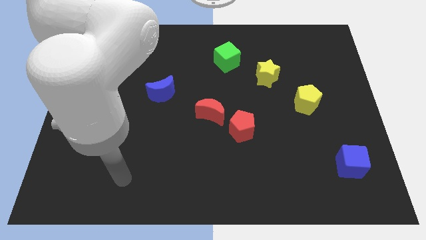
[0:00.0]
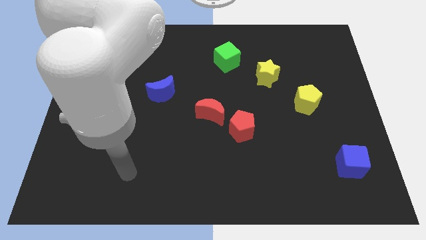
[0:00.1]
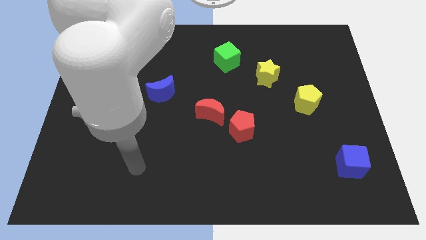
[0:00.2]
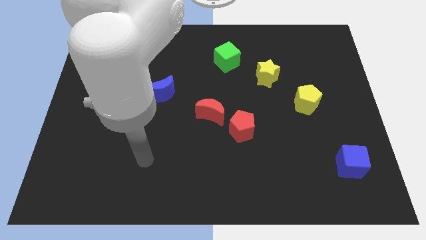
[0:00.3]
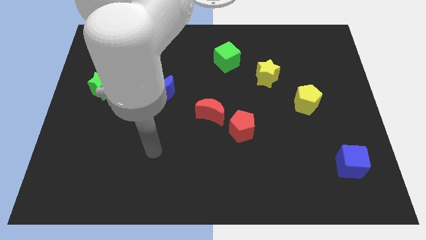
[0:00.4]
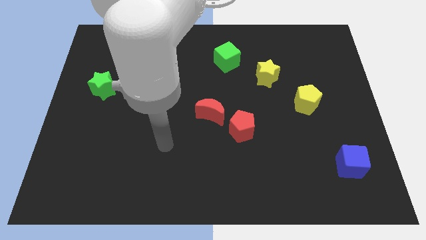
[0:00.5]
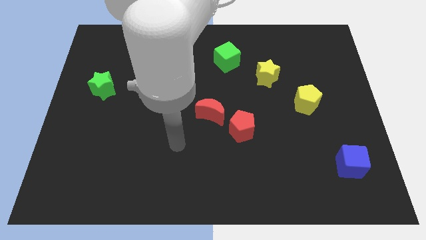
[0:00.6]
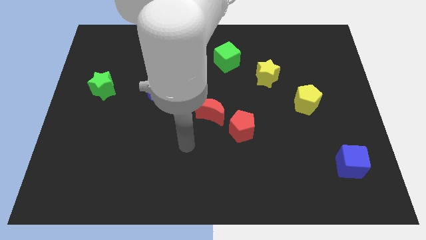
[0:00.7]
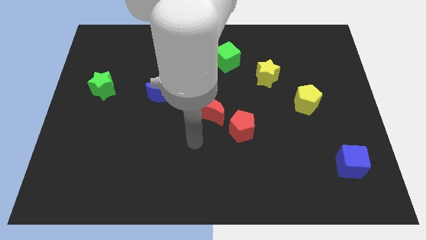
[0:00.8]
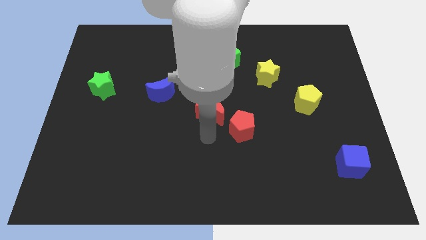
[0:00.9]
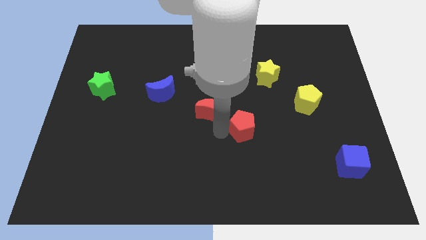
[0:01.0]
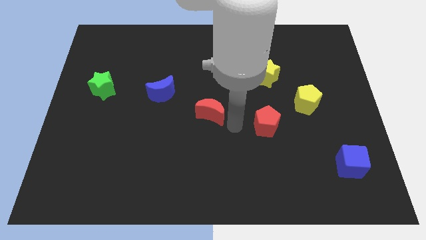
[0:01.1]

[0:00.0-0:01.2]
pull the red moon apart from the red pentagon

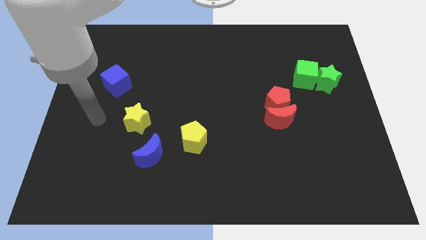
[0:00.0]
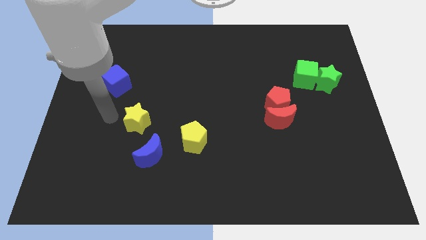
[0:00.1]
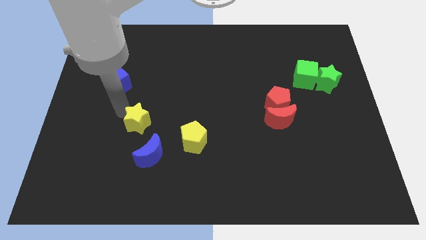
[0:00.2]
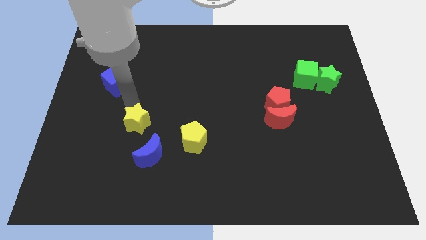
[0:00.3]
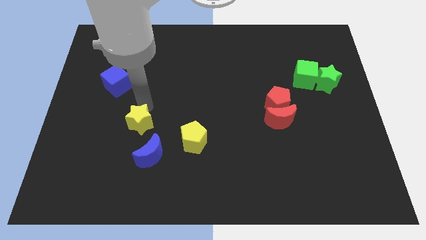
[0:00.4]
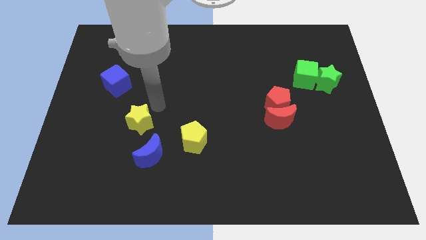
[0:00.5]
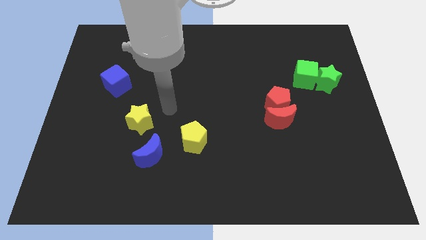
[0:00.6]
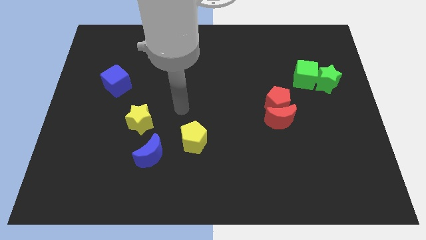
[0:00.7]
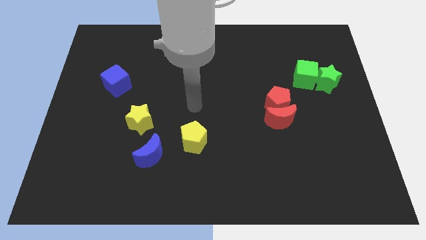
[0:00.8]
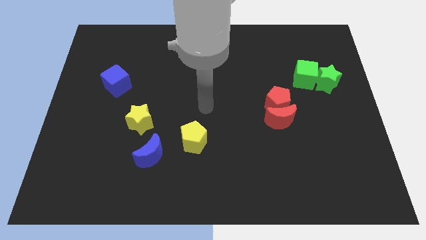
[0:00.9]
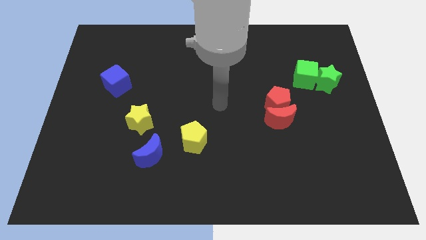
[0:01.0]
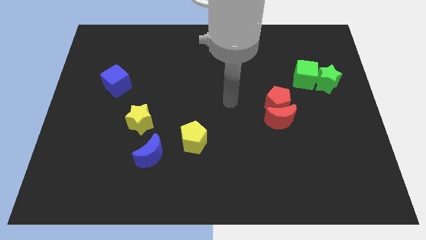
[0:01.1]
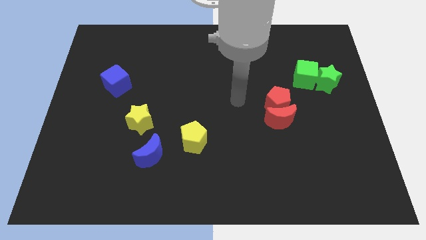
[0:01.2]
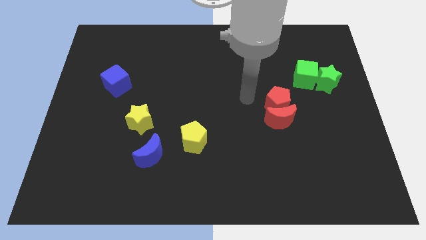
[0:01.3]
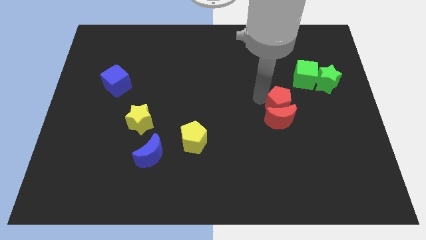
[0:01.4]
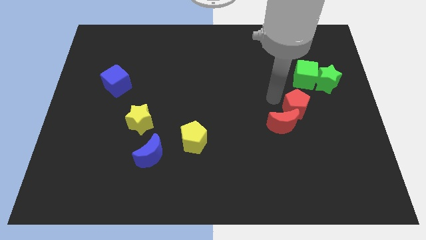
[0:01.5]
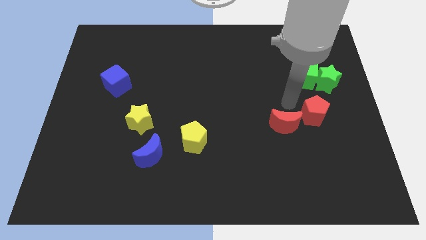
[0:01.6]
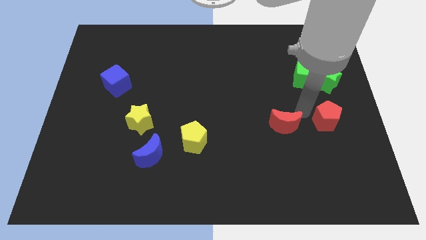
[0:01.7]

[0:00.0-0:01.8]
separate the red moon from the red pentagon

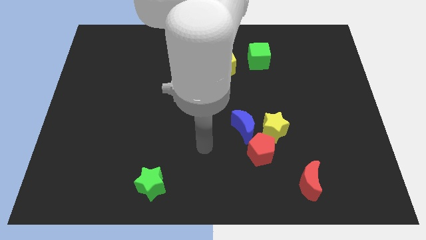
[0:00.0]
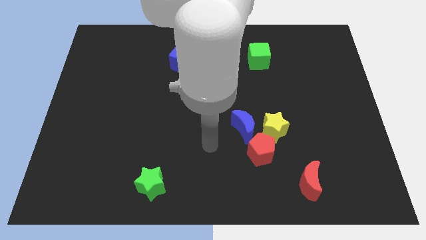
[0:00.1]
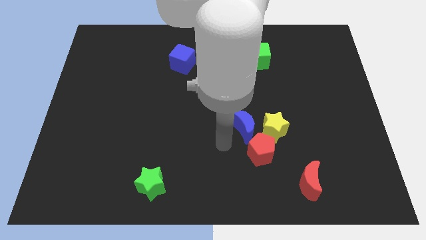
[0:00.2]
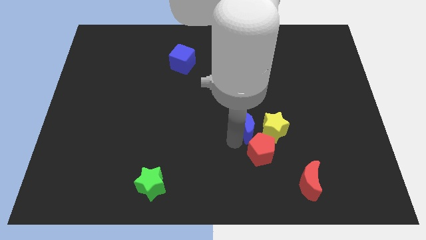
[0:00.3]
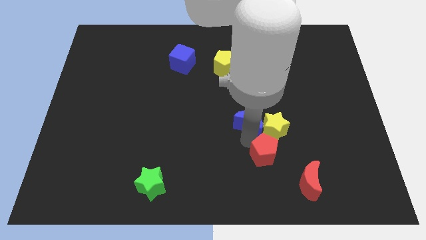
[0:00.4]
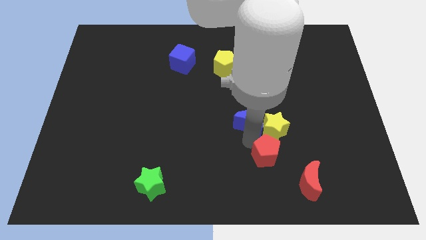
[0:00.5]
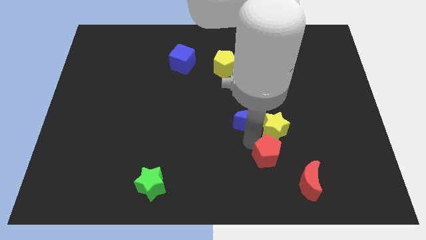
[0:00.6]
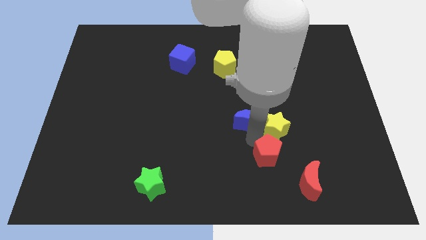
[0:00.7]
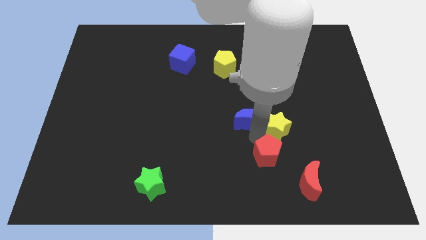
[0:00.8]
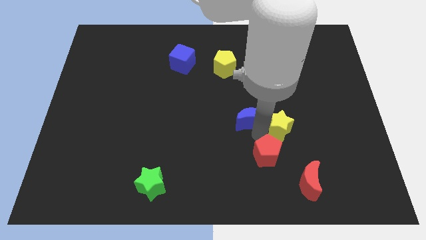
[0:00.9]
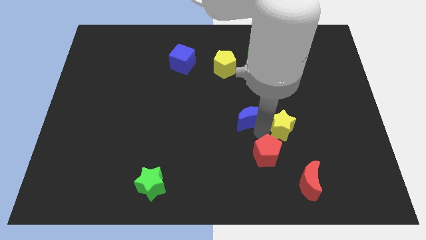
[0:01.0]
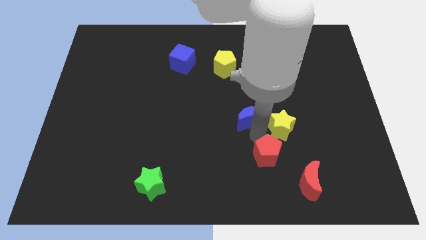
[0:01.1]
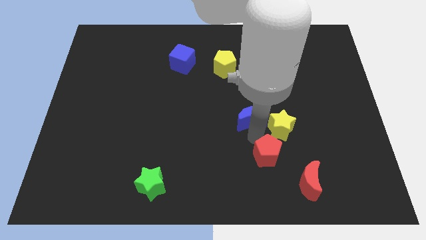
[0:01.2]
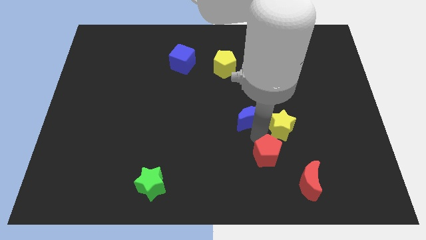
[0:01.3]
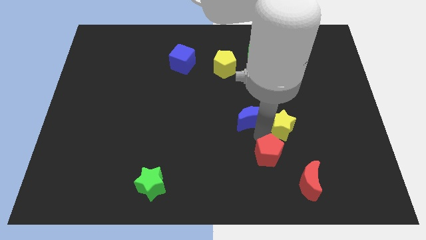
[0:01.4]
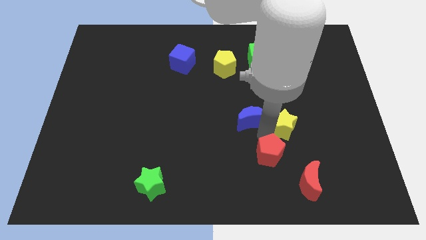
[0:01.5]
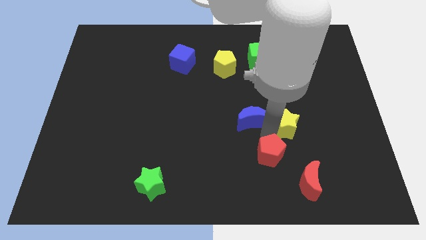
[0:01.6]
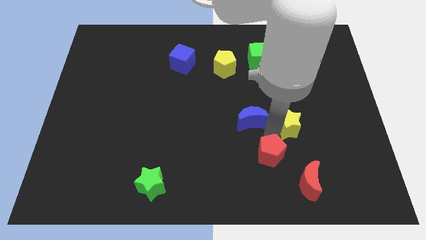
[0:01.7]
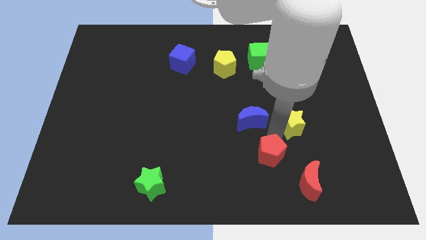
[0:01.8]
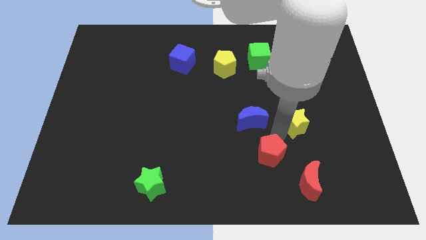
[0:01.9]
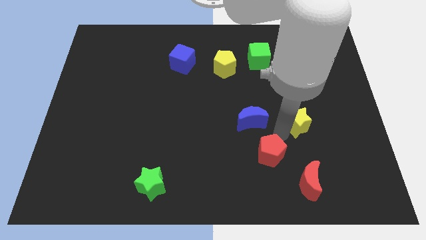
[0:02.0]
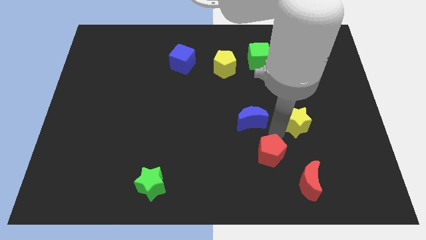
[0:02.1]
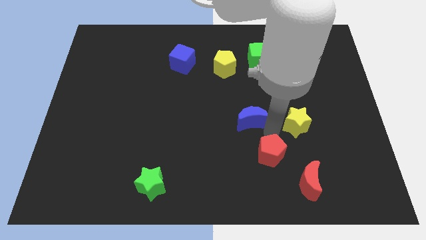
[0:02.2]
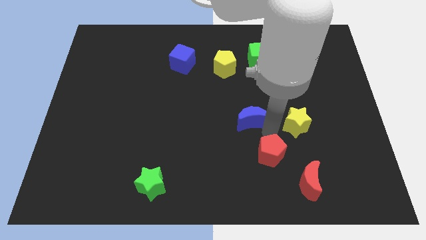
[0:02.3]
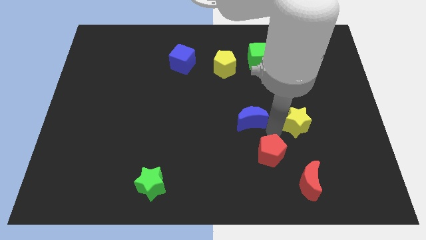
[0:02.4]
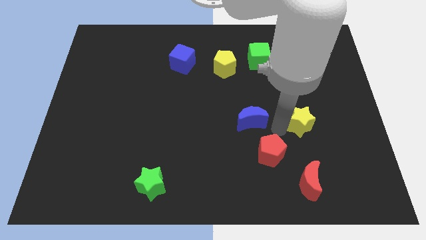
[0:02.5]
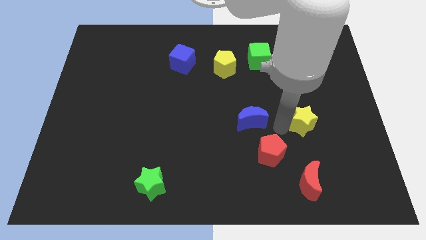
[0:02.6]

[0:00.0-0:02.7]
pull the yellow star apart from the blue moon and red pentagon

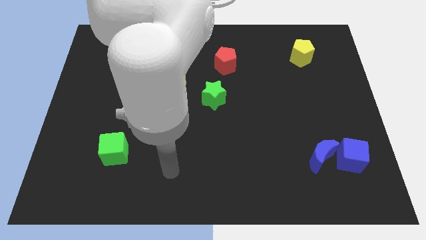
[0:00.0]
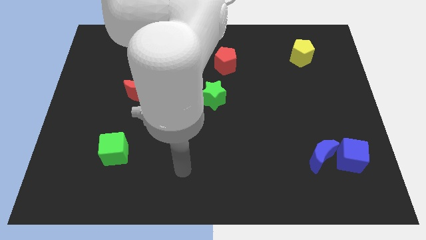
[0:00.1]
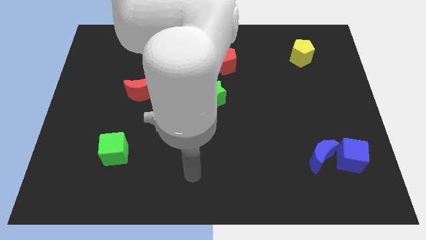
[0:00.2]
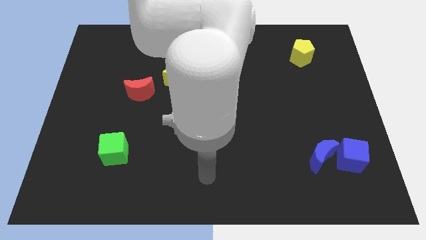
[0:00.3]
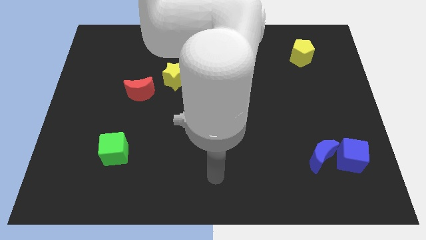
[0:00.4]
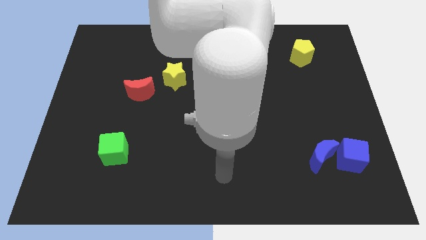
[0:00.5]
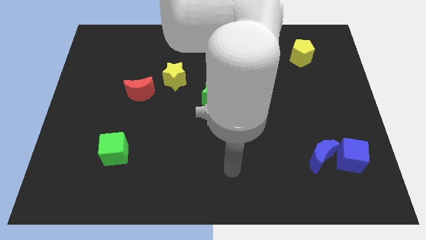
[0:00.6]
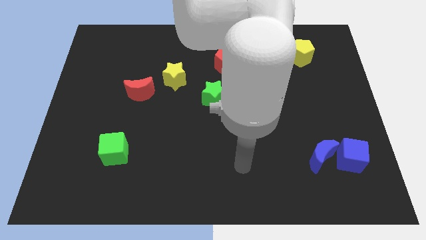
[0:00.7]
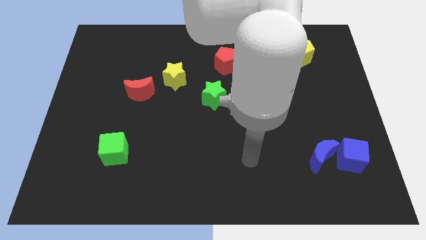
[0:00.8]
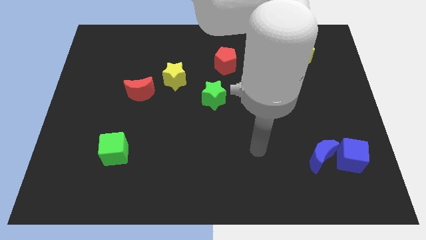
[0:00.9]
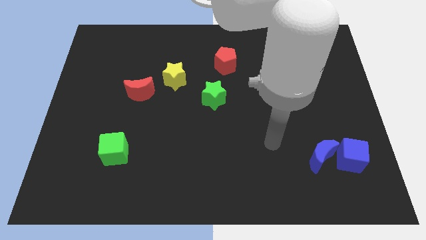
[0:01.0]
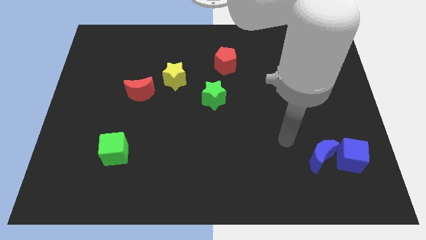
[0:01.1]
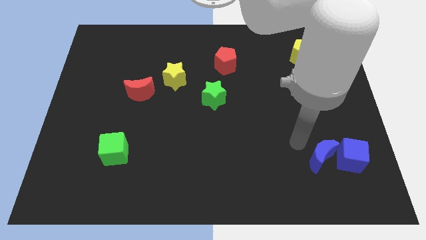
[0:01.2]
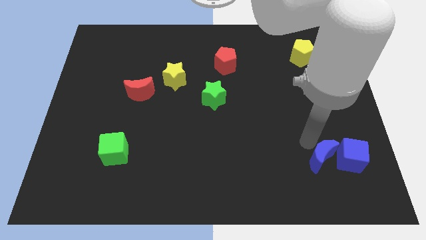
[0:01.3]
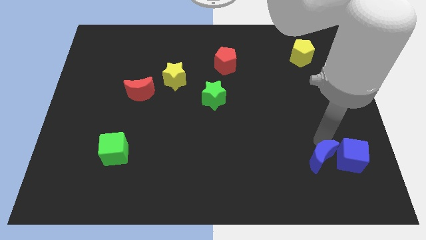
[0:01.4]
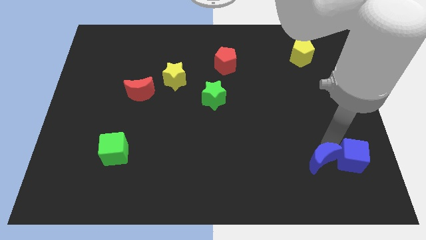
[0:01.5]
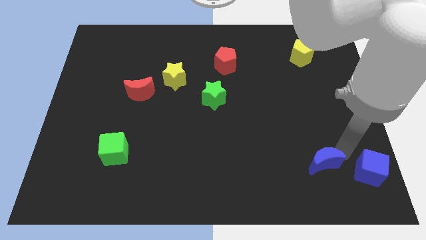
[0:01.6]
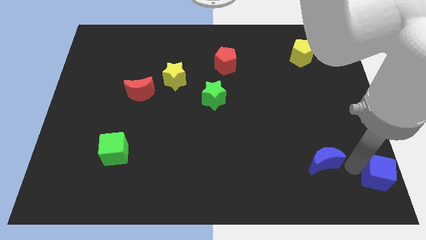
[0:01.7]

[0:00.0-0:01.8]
move the blue moon away from the blue cube

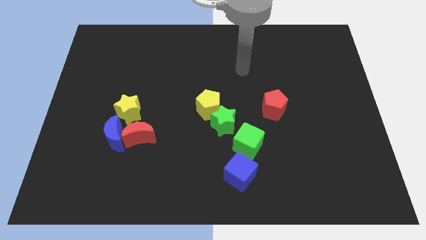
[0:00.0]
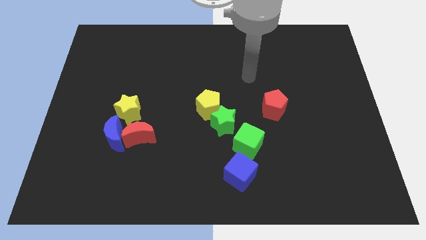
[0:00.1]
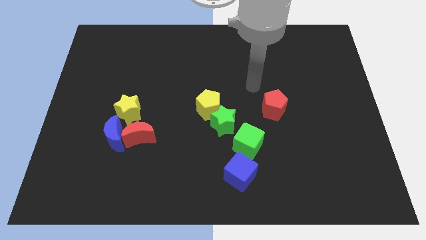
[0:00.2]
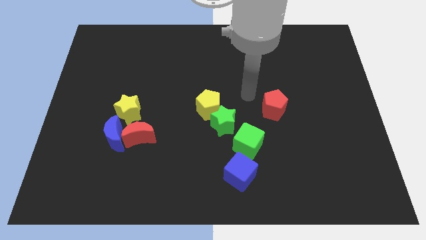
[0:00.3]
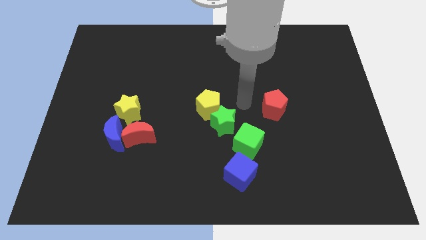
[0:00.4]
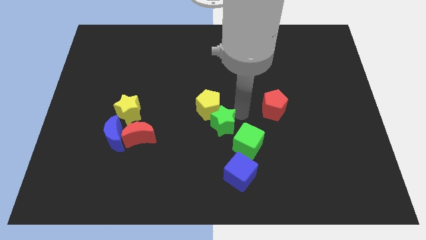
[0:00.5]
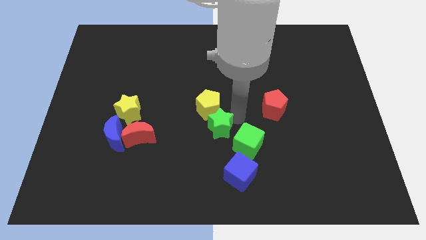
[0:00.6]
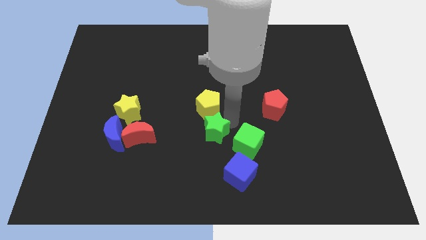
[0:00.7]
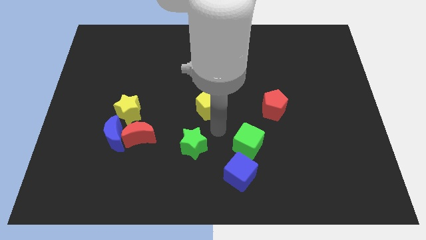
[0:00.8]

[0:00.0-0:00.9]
move the yellow pentagon away from the green star

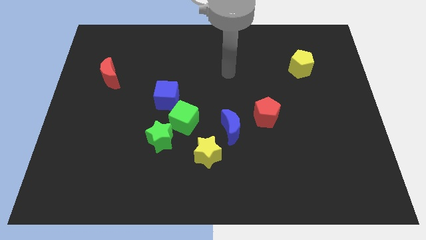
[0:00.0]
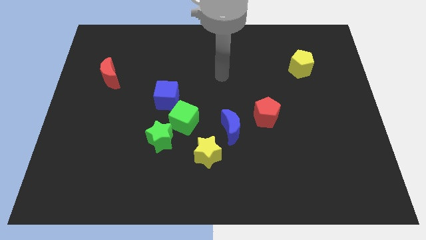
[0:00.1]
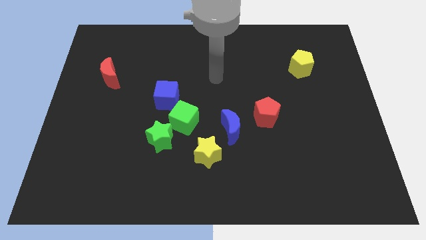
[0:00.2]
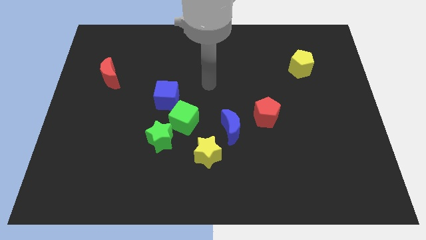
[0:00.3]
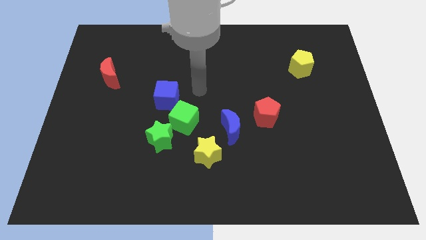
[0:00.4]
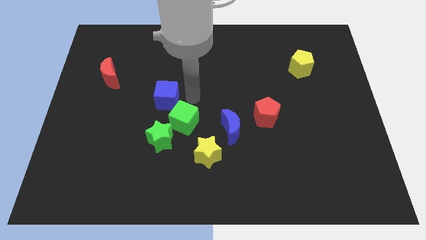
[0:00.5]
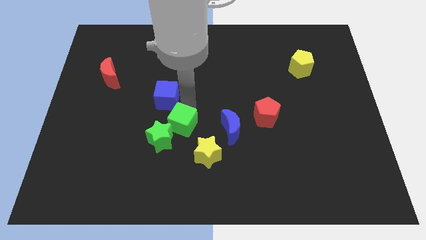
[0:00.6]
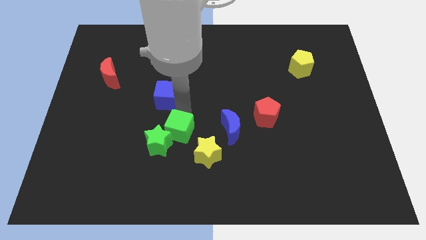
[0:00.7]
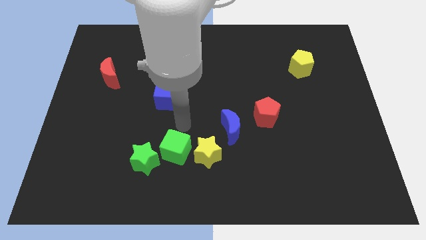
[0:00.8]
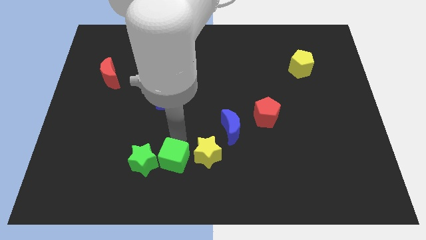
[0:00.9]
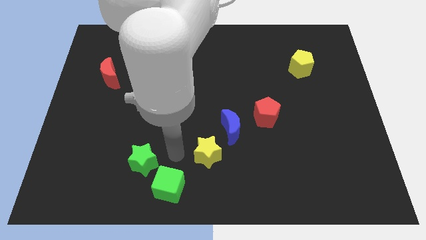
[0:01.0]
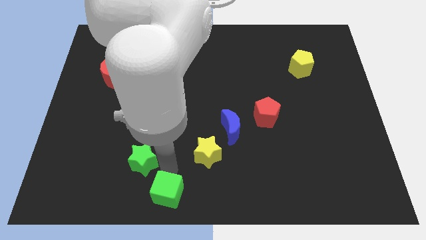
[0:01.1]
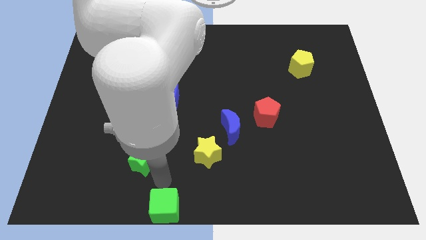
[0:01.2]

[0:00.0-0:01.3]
separate the green star from the green cube
